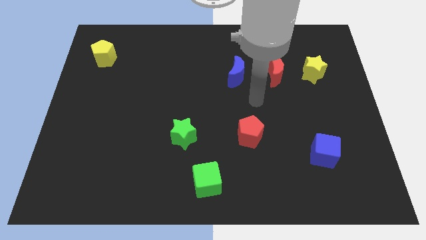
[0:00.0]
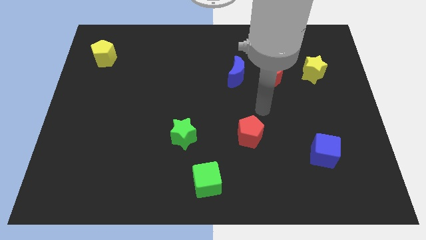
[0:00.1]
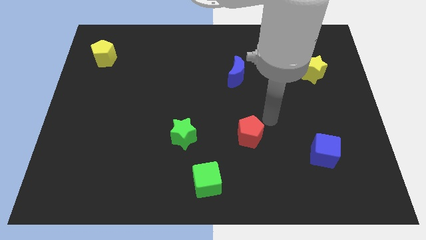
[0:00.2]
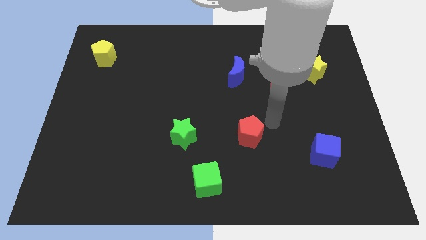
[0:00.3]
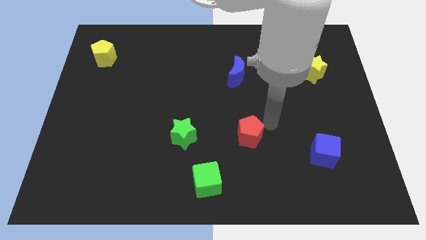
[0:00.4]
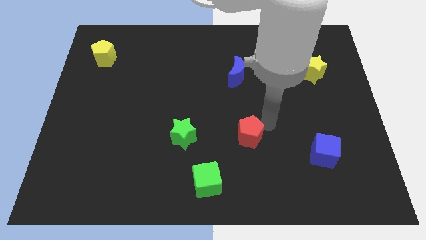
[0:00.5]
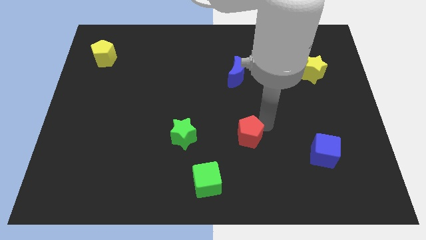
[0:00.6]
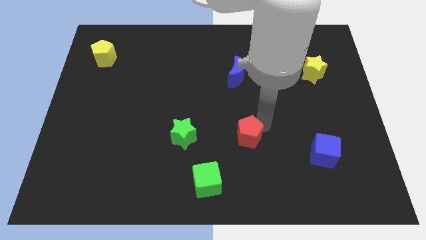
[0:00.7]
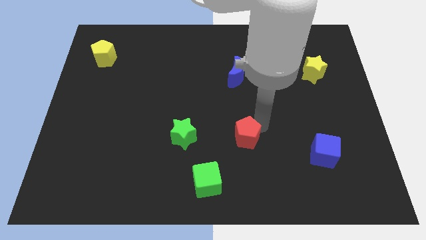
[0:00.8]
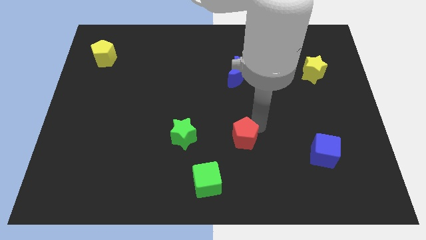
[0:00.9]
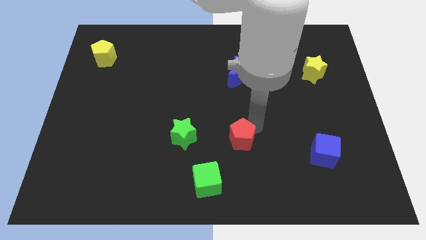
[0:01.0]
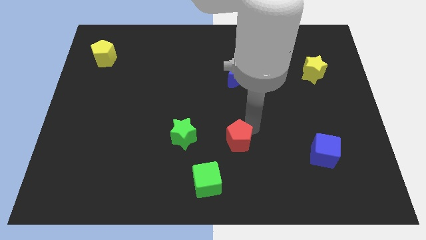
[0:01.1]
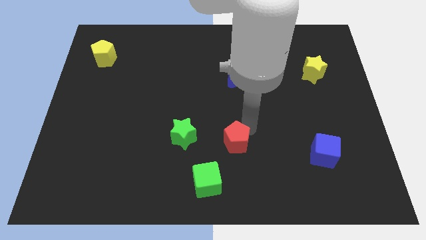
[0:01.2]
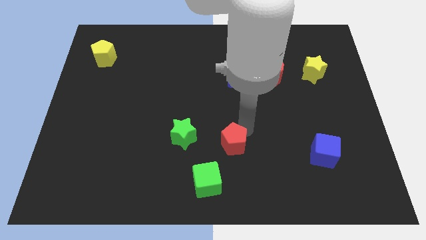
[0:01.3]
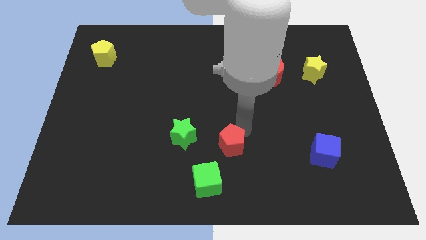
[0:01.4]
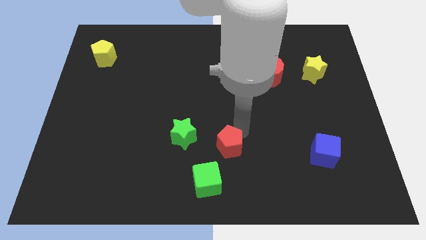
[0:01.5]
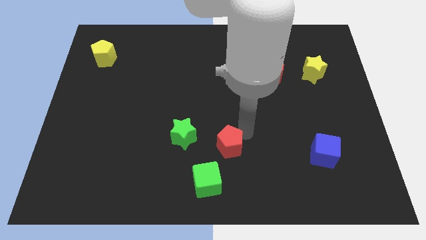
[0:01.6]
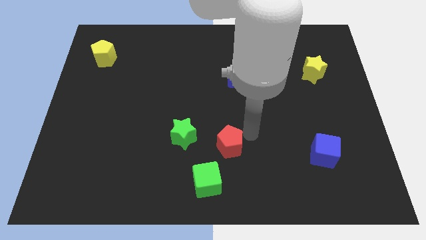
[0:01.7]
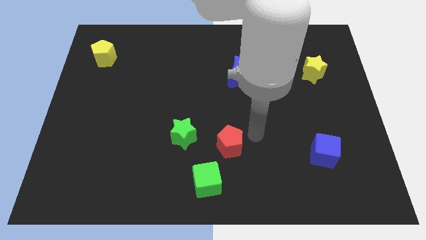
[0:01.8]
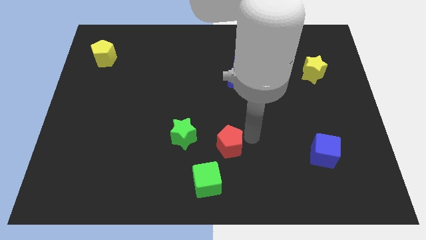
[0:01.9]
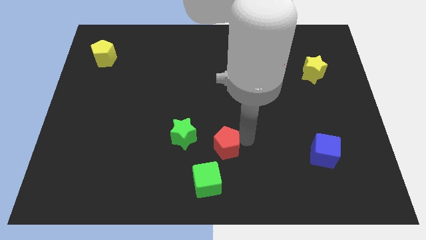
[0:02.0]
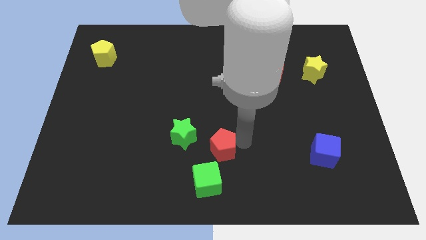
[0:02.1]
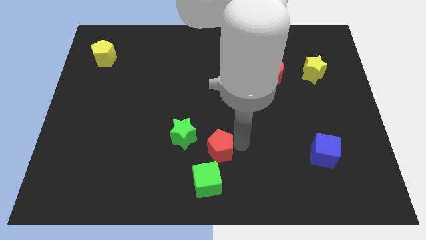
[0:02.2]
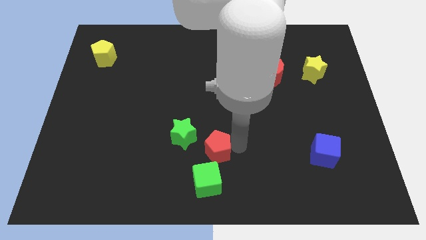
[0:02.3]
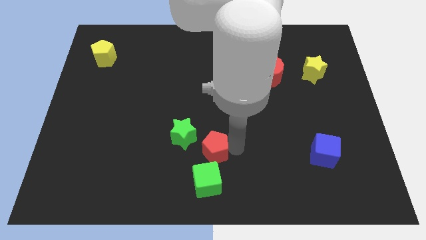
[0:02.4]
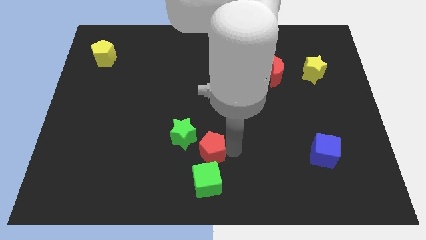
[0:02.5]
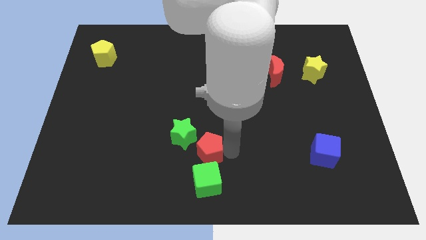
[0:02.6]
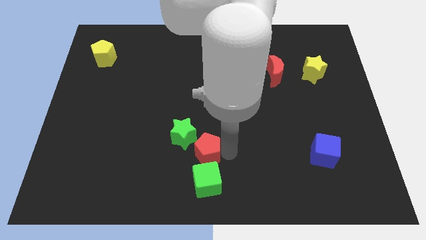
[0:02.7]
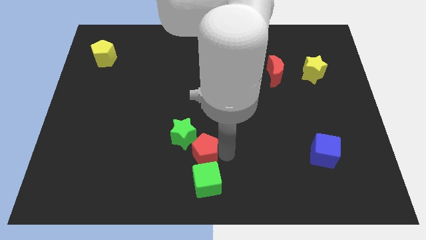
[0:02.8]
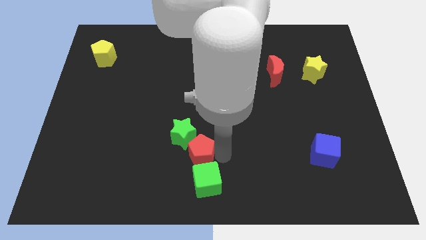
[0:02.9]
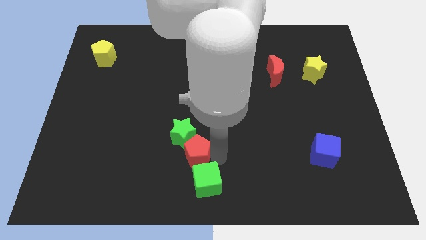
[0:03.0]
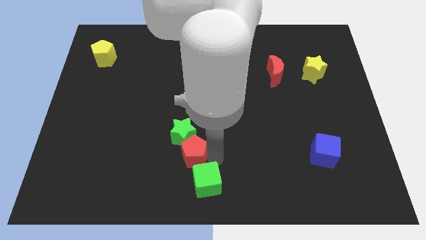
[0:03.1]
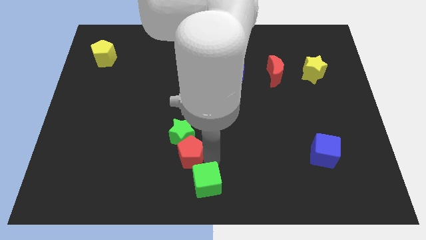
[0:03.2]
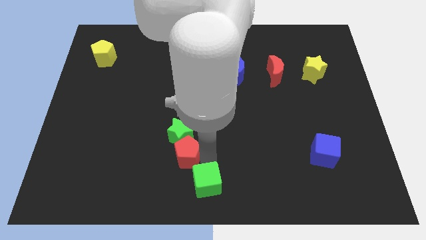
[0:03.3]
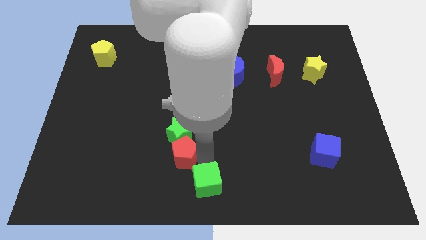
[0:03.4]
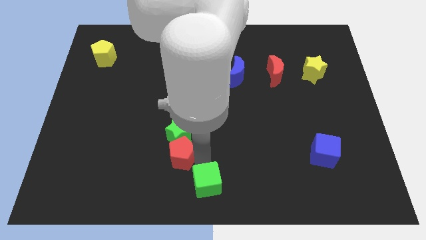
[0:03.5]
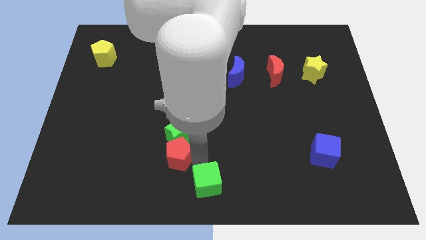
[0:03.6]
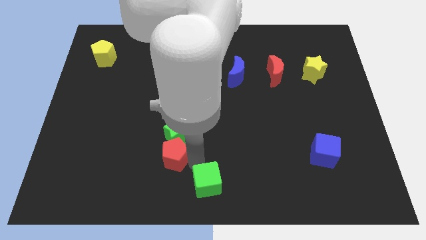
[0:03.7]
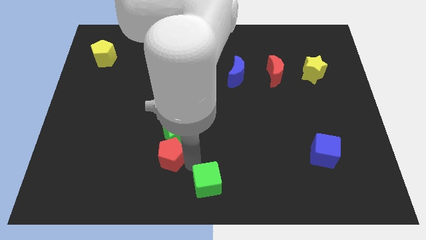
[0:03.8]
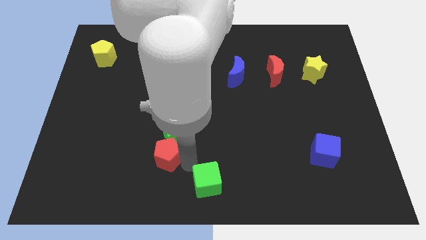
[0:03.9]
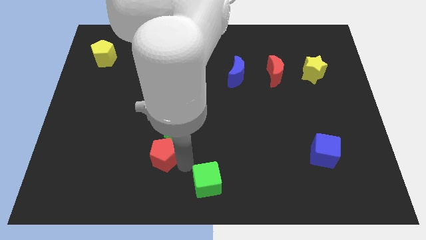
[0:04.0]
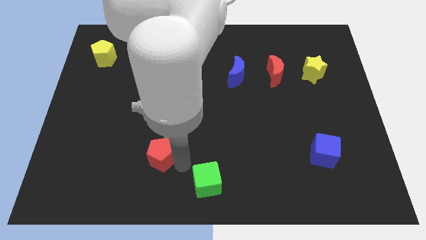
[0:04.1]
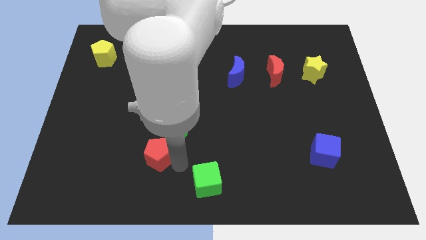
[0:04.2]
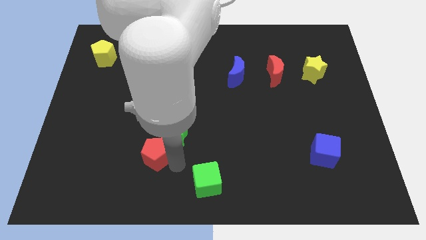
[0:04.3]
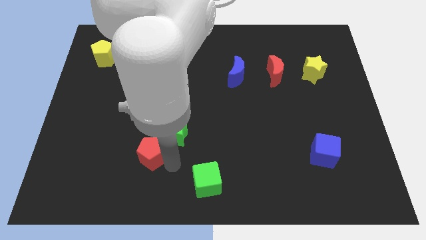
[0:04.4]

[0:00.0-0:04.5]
slide the red pentagon to the left

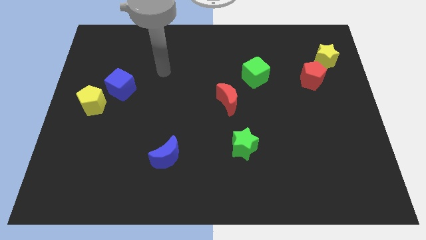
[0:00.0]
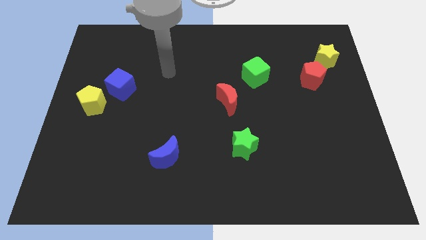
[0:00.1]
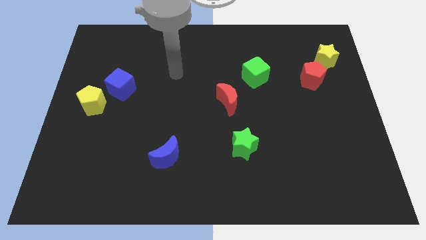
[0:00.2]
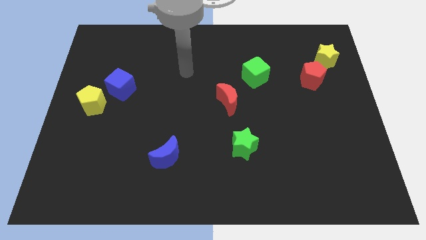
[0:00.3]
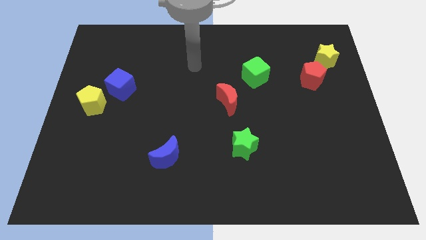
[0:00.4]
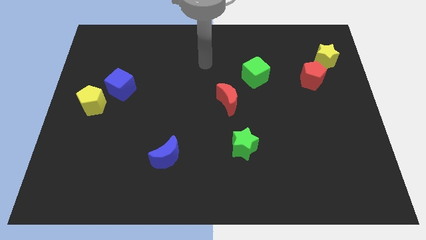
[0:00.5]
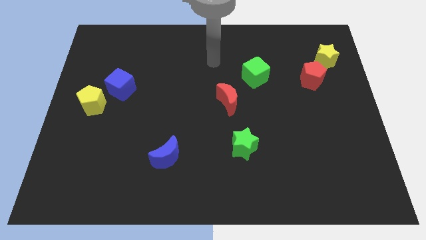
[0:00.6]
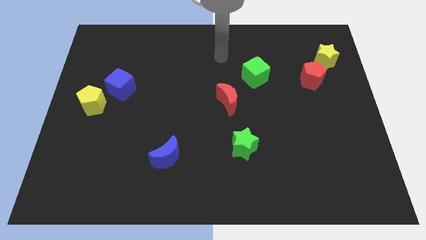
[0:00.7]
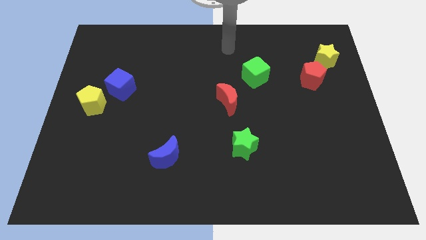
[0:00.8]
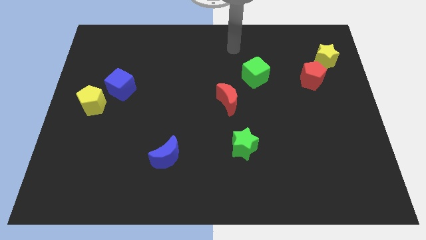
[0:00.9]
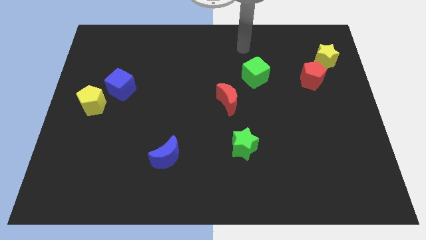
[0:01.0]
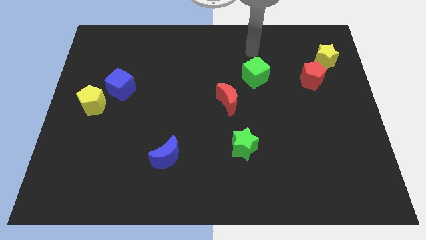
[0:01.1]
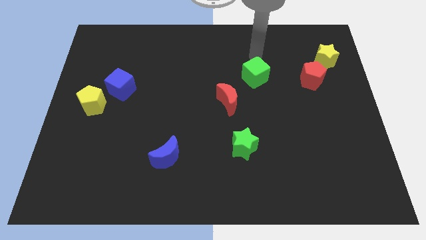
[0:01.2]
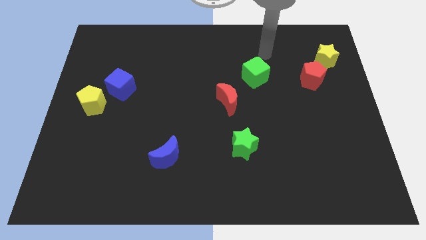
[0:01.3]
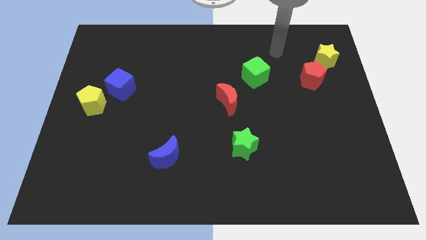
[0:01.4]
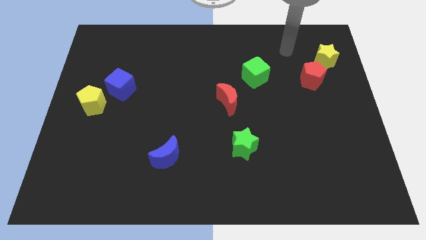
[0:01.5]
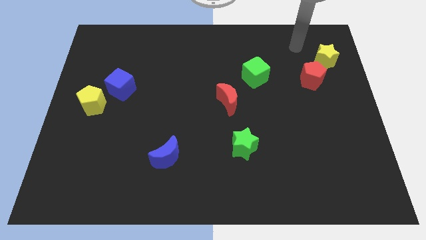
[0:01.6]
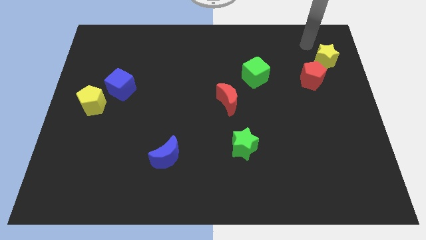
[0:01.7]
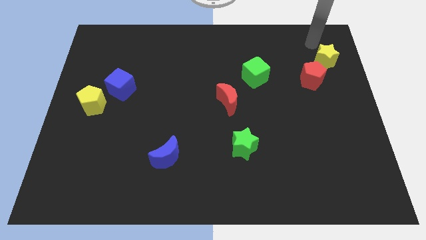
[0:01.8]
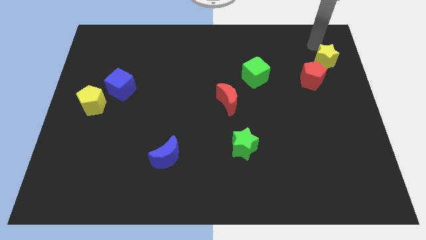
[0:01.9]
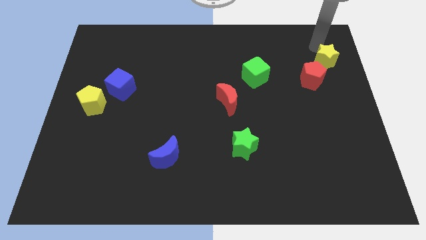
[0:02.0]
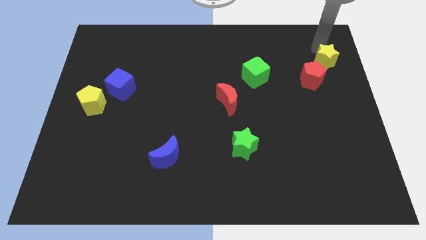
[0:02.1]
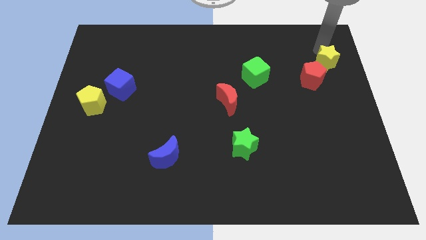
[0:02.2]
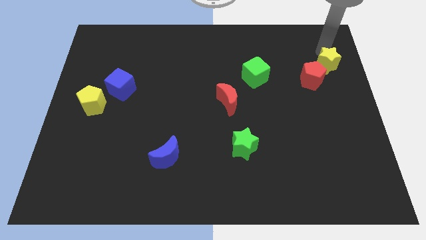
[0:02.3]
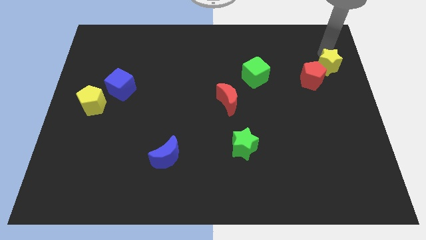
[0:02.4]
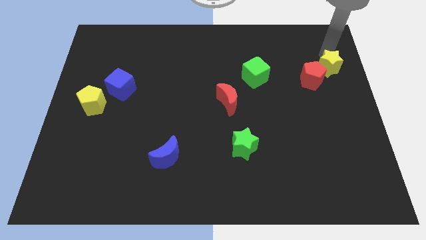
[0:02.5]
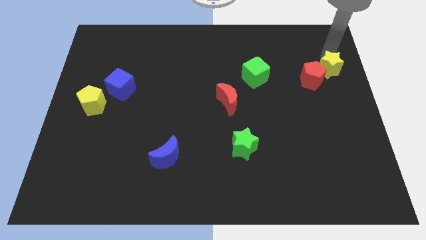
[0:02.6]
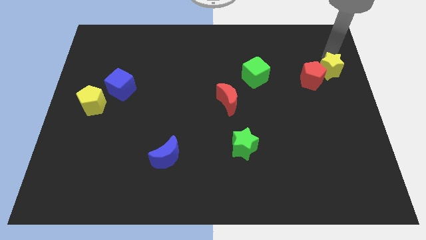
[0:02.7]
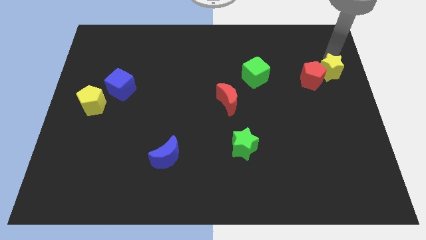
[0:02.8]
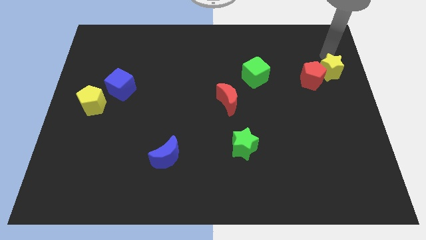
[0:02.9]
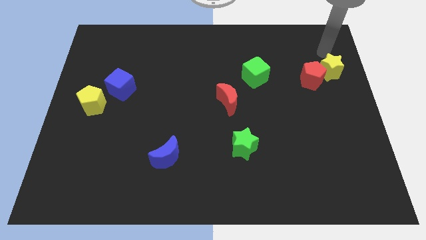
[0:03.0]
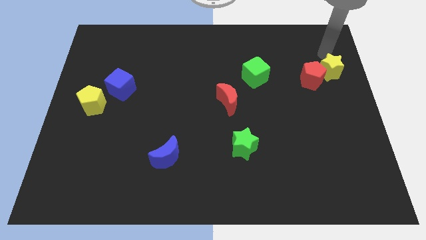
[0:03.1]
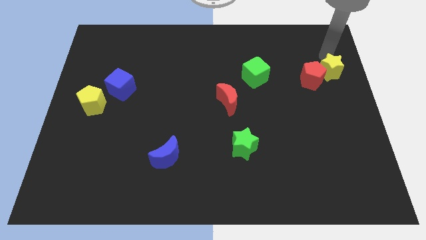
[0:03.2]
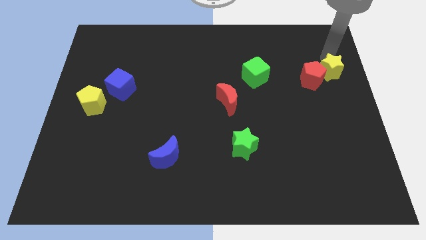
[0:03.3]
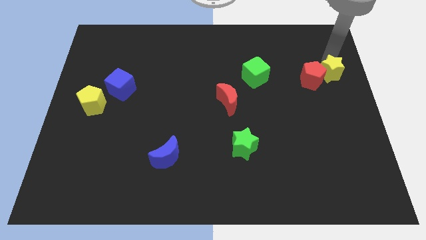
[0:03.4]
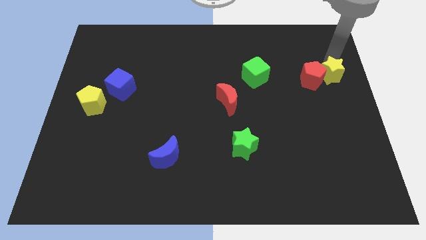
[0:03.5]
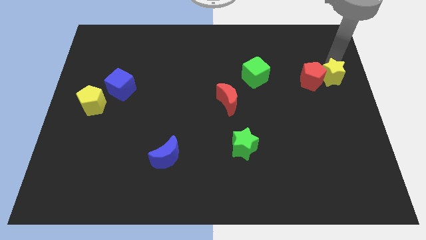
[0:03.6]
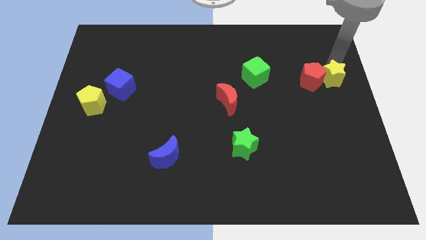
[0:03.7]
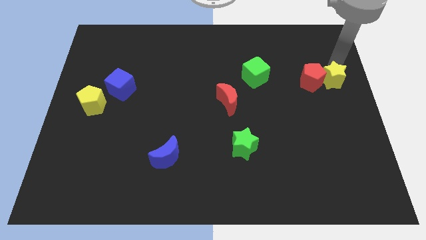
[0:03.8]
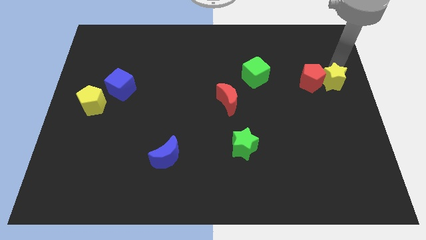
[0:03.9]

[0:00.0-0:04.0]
push the yellow star a little downwards
